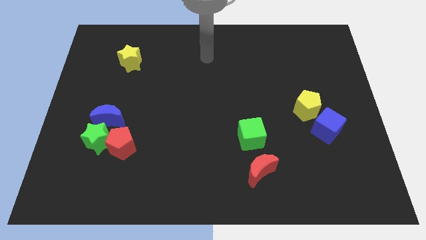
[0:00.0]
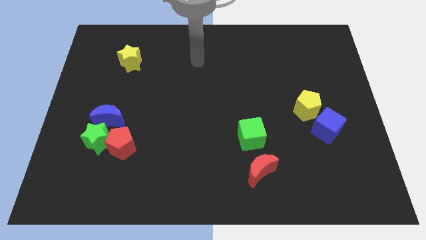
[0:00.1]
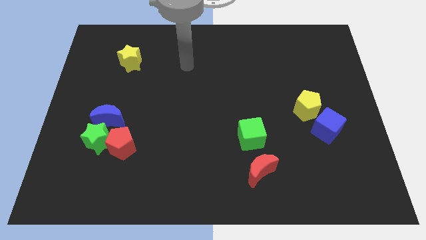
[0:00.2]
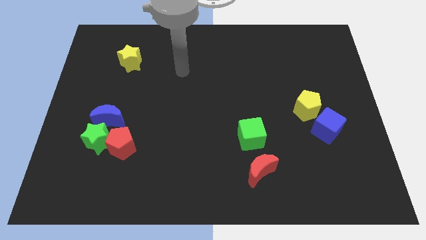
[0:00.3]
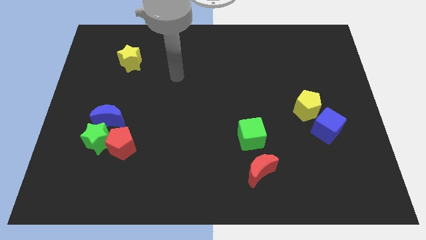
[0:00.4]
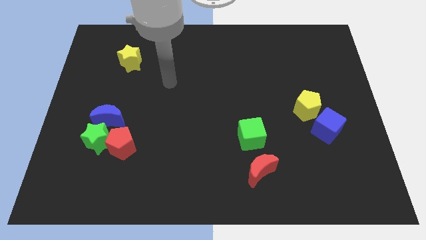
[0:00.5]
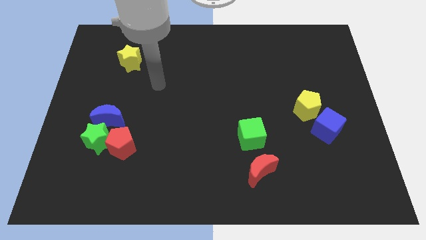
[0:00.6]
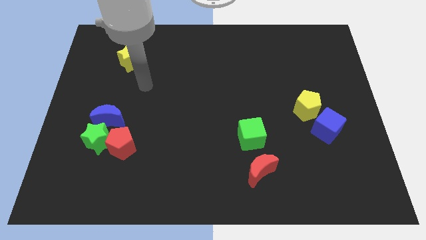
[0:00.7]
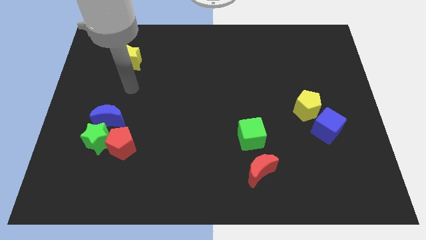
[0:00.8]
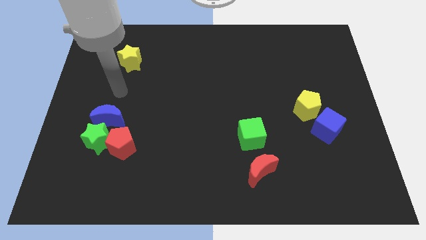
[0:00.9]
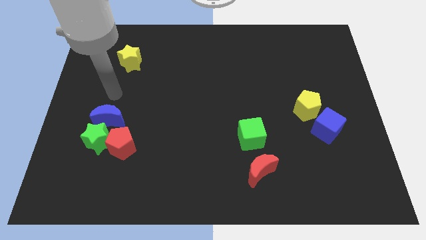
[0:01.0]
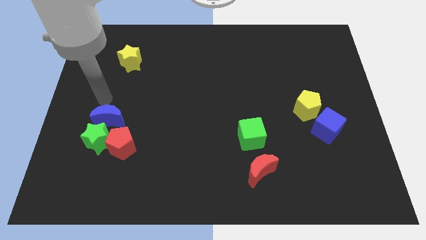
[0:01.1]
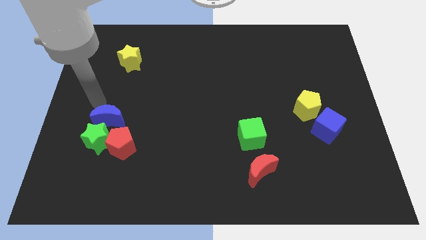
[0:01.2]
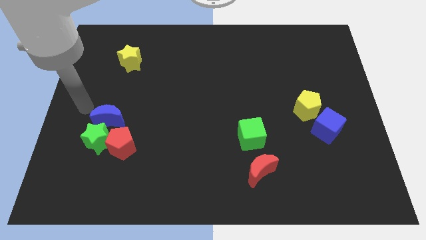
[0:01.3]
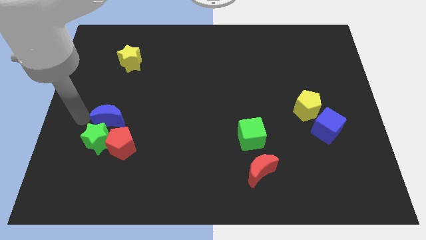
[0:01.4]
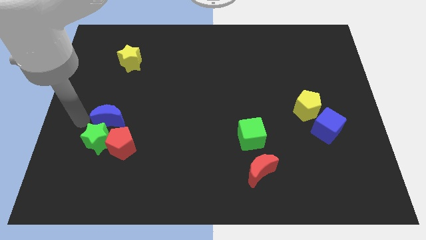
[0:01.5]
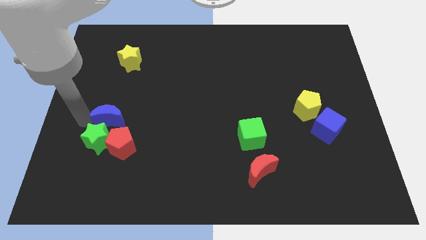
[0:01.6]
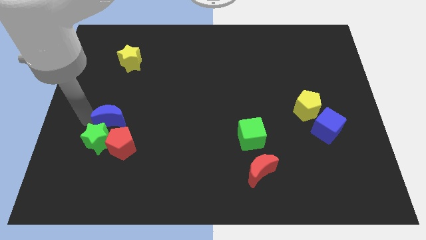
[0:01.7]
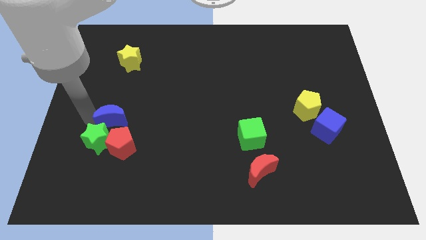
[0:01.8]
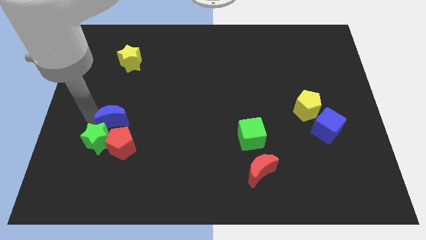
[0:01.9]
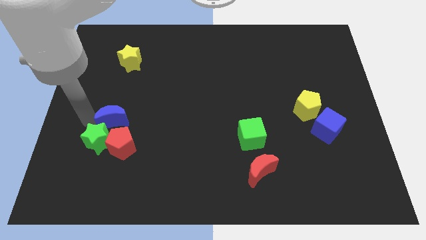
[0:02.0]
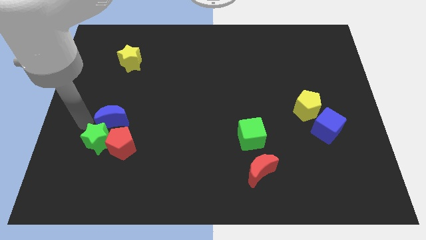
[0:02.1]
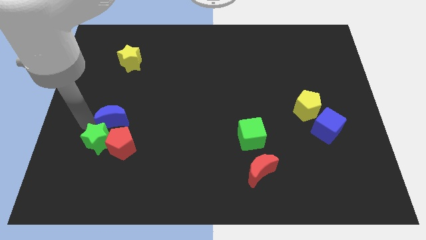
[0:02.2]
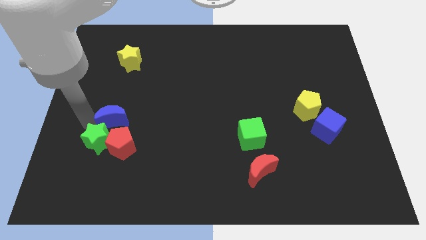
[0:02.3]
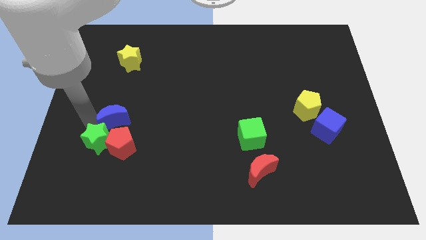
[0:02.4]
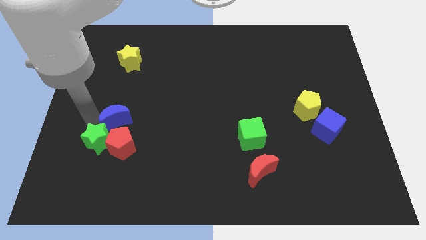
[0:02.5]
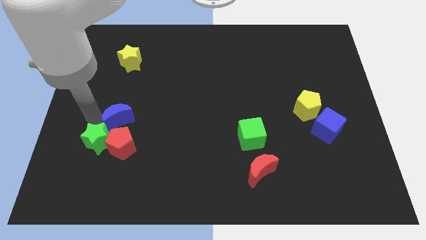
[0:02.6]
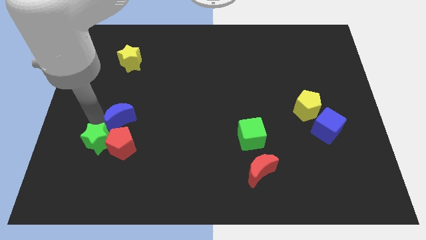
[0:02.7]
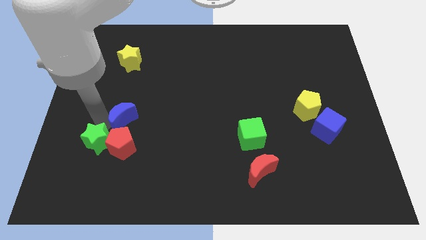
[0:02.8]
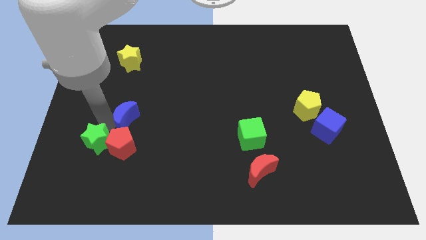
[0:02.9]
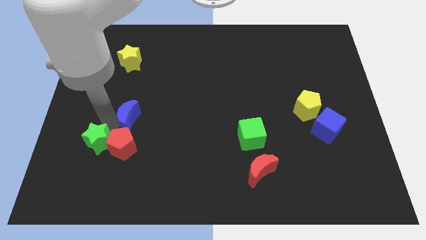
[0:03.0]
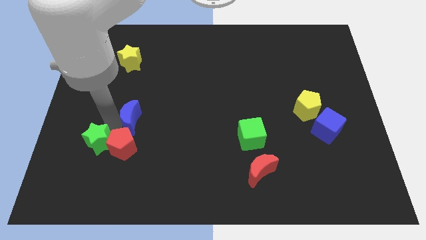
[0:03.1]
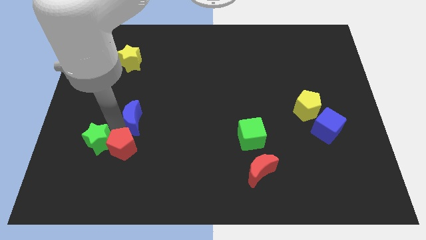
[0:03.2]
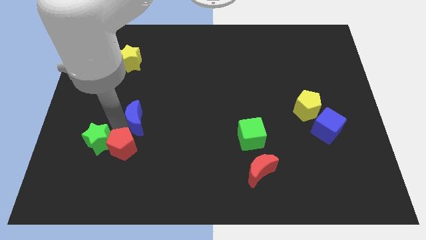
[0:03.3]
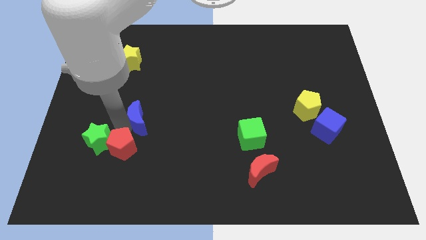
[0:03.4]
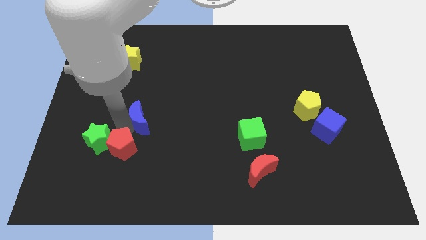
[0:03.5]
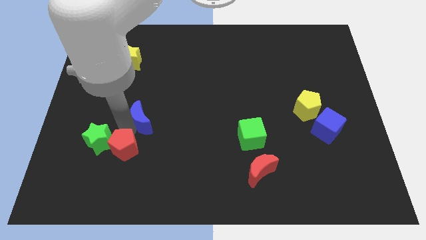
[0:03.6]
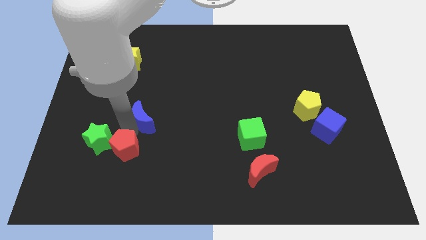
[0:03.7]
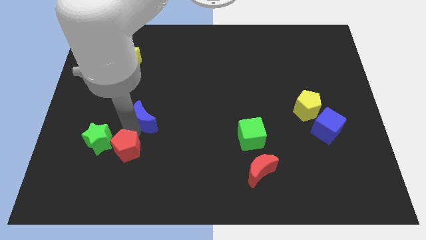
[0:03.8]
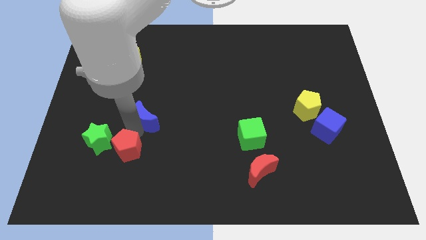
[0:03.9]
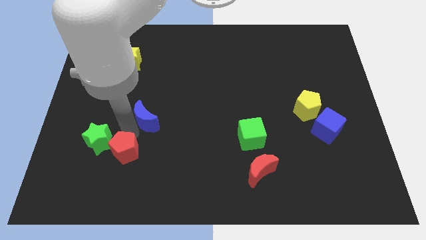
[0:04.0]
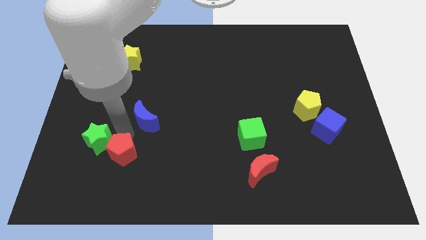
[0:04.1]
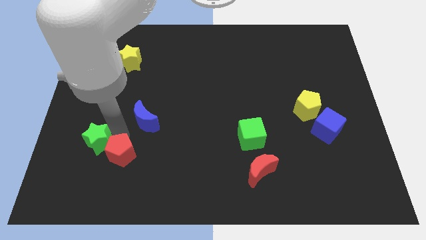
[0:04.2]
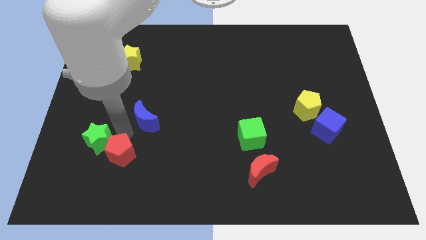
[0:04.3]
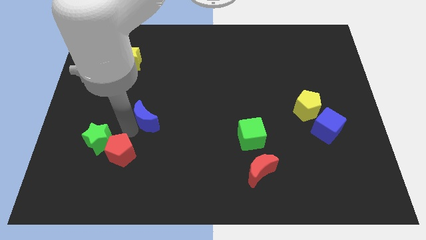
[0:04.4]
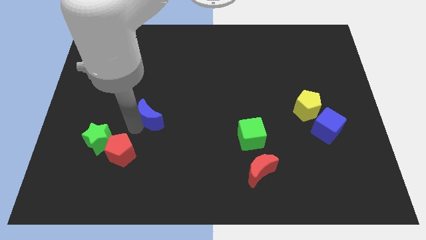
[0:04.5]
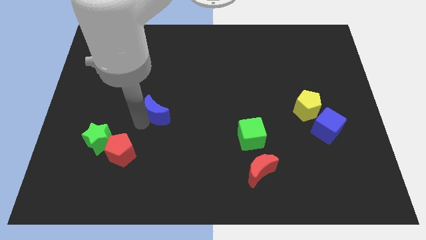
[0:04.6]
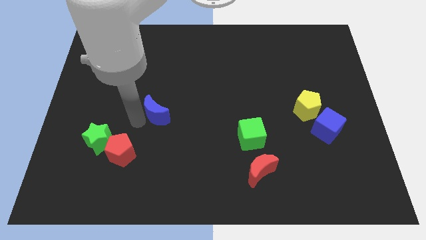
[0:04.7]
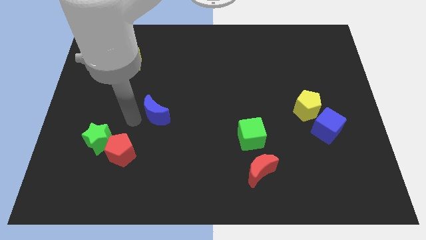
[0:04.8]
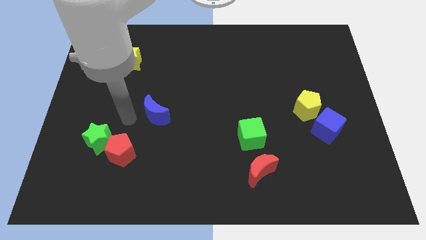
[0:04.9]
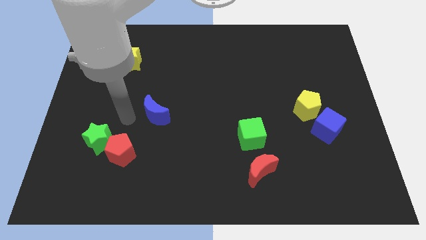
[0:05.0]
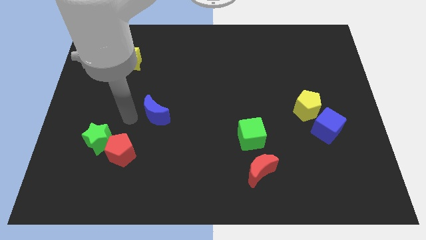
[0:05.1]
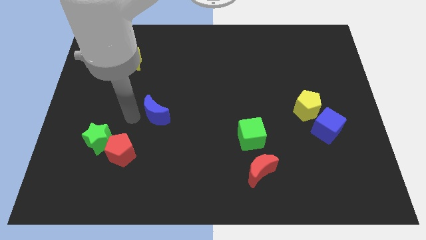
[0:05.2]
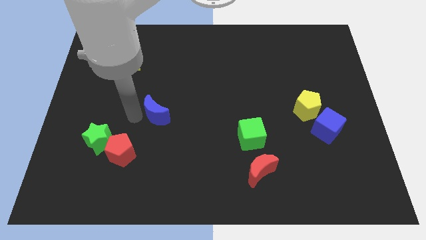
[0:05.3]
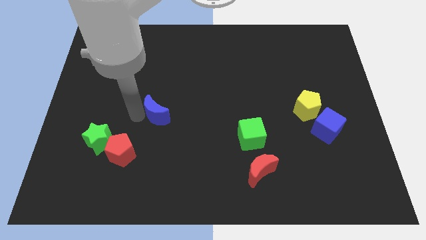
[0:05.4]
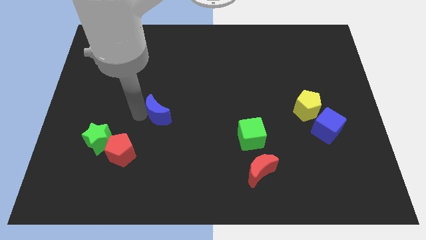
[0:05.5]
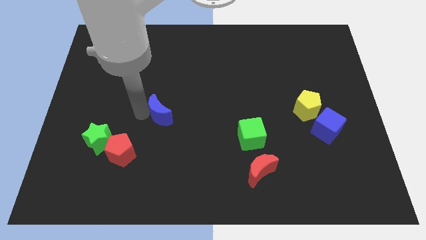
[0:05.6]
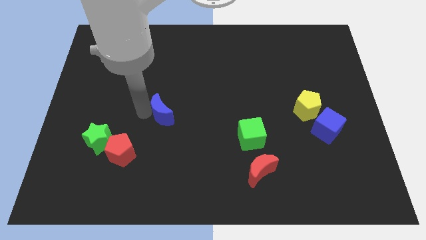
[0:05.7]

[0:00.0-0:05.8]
slide the blue moon to the center
